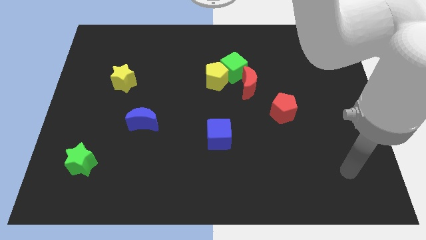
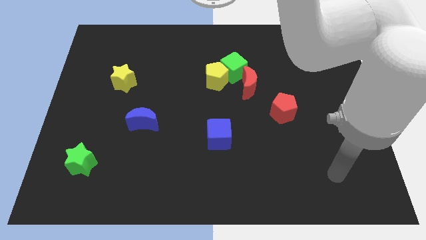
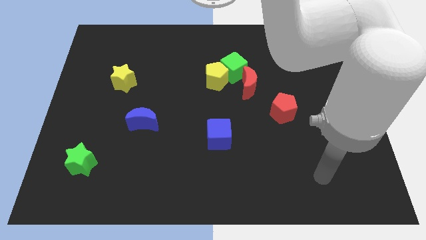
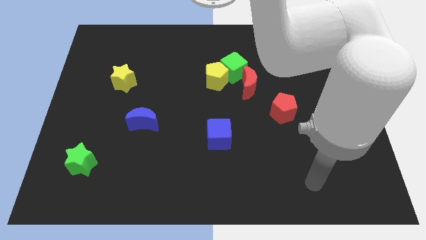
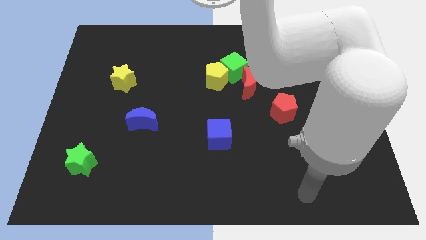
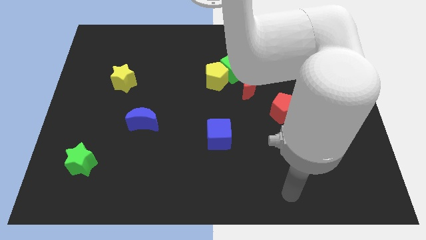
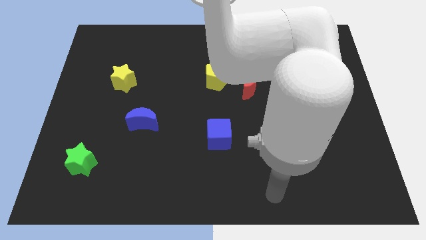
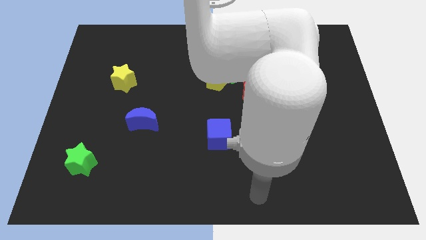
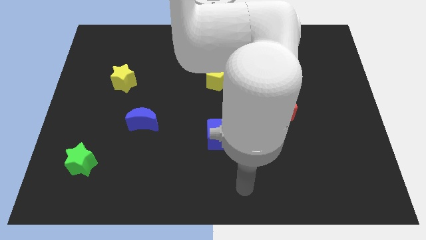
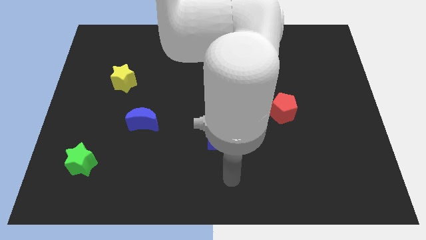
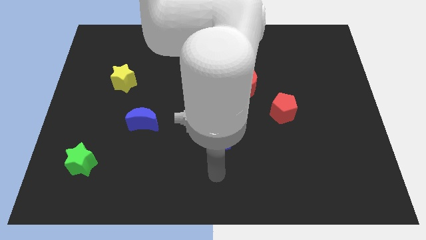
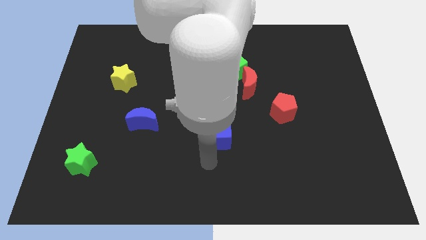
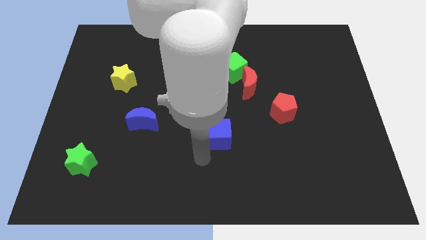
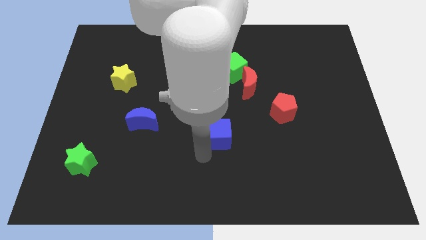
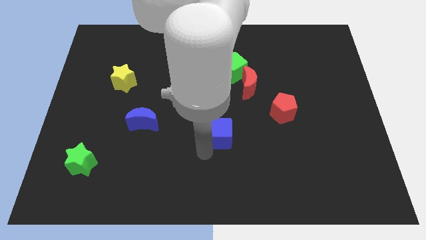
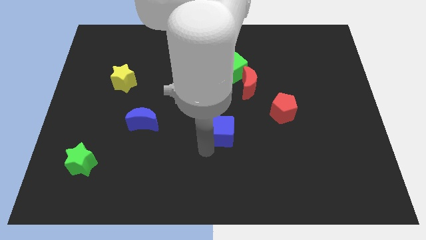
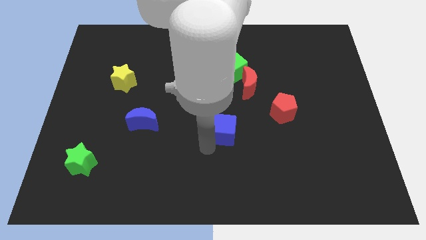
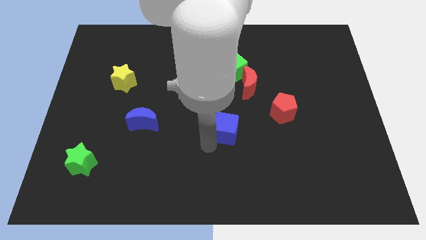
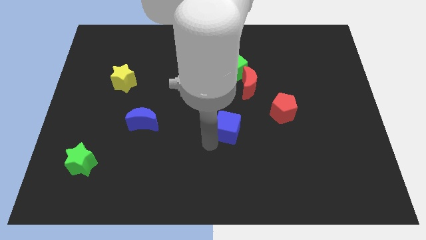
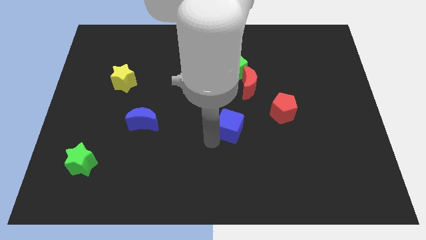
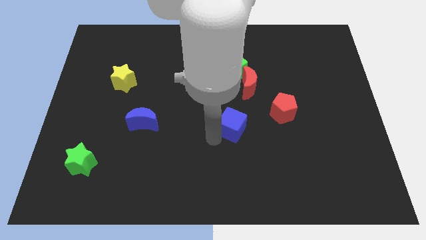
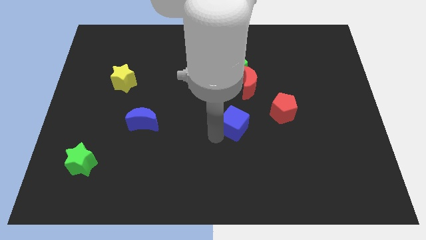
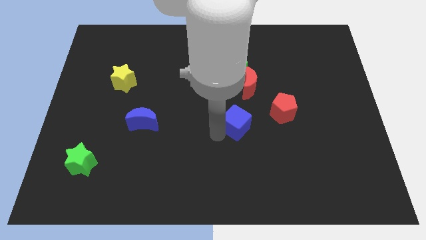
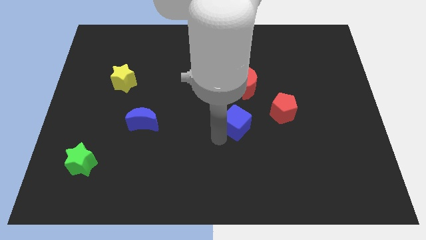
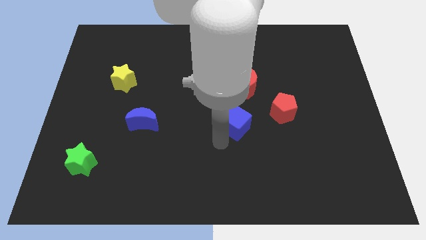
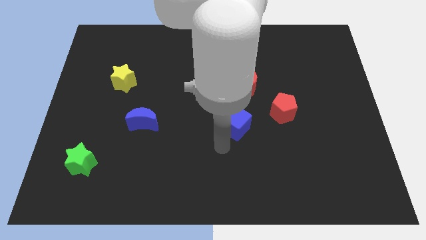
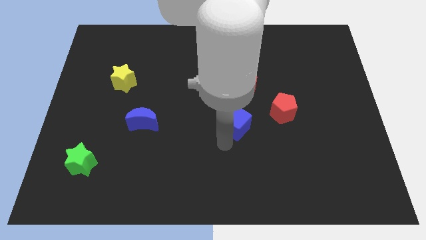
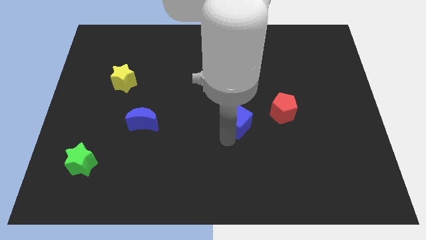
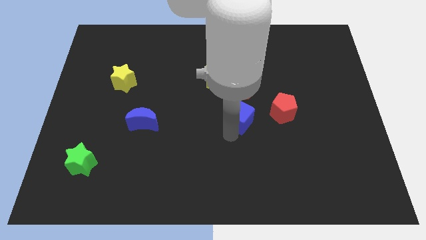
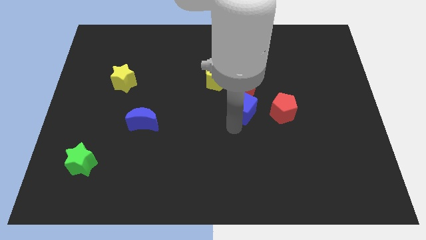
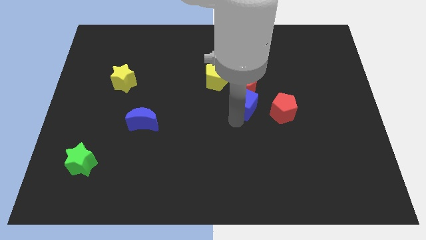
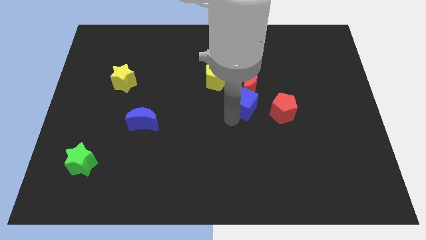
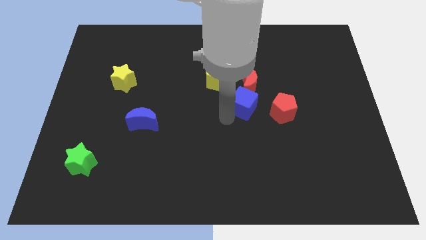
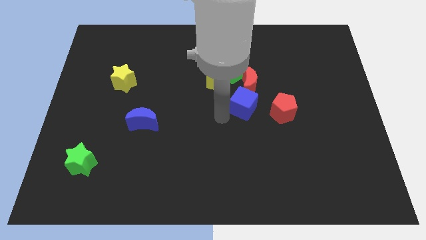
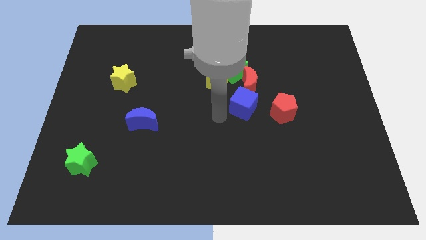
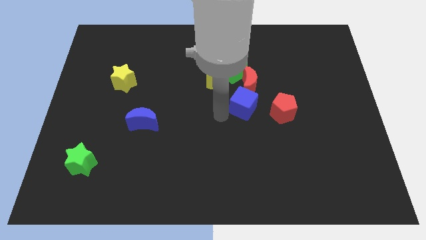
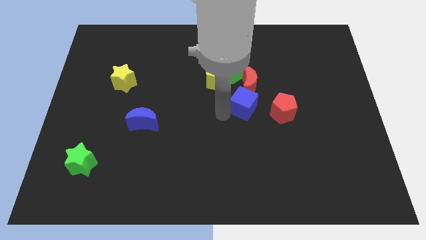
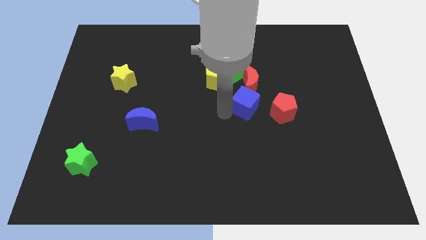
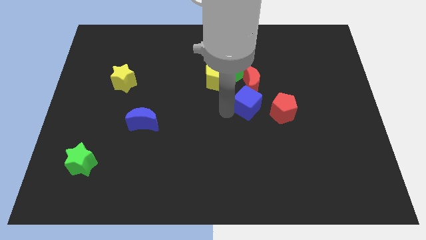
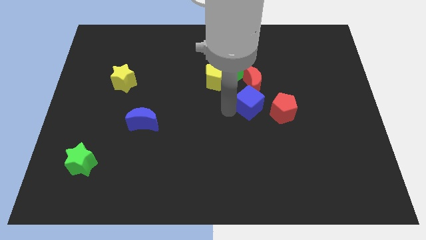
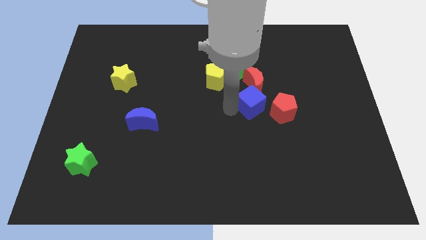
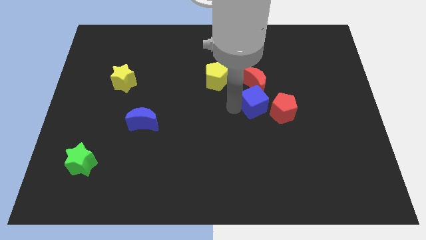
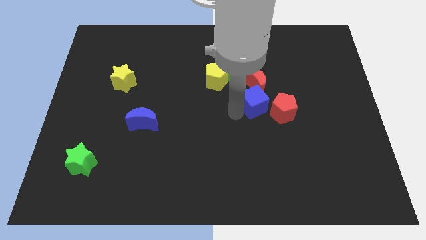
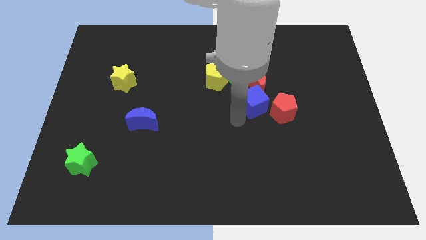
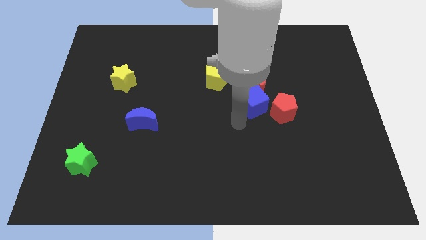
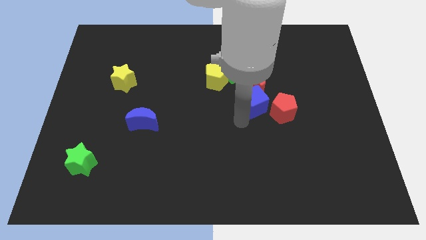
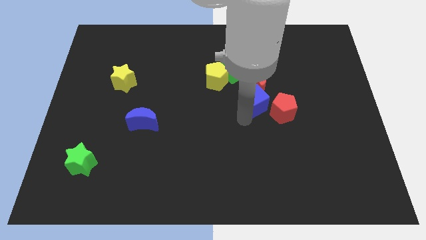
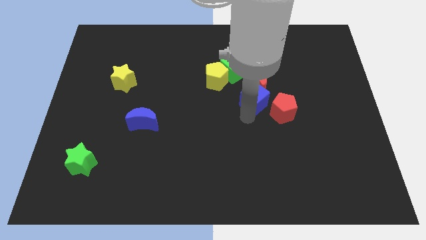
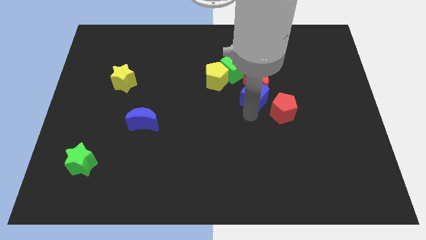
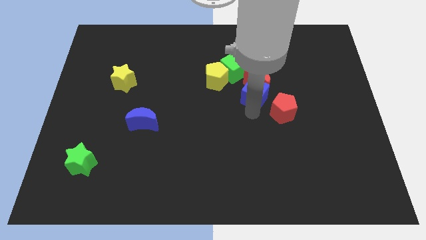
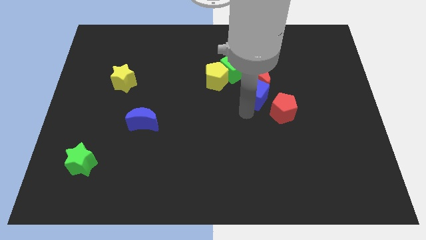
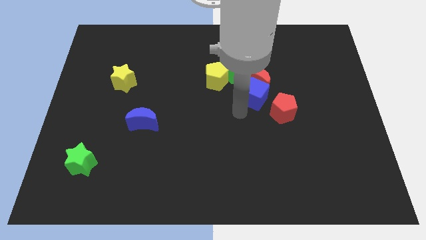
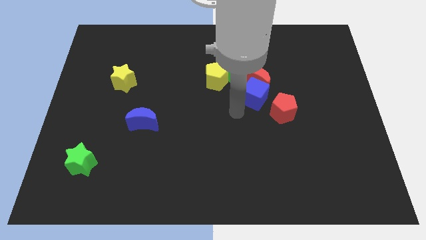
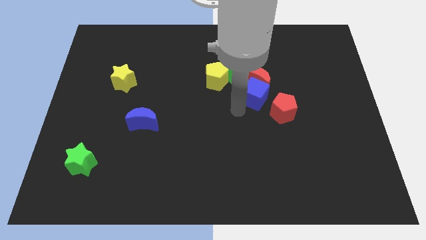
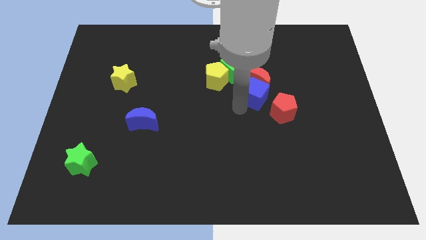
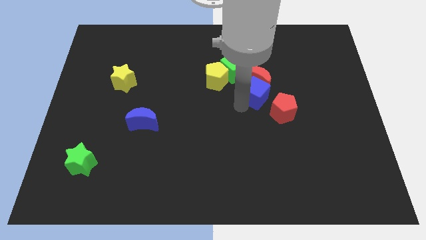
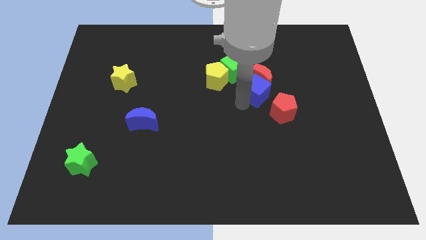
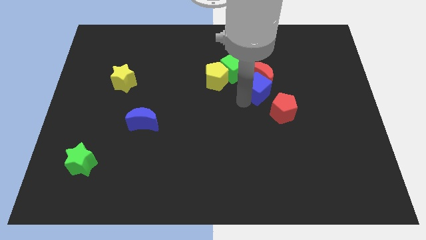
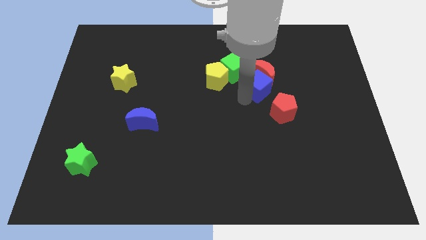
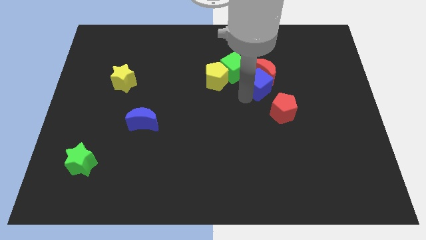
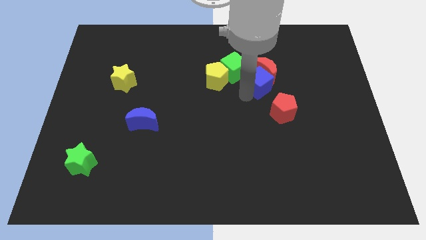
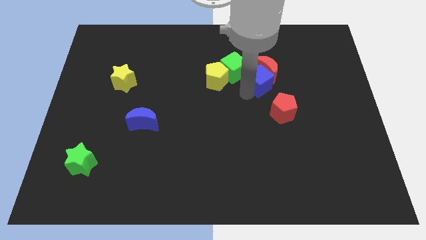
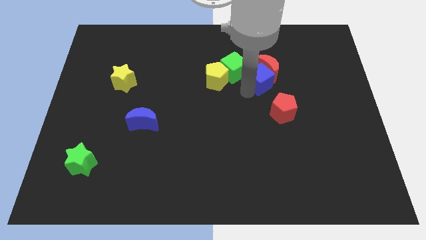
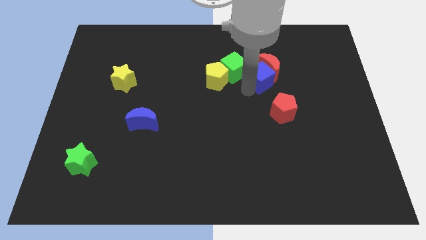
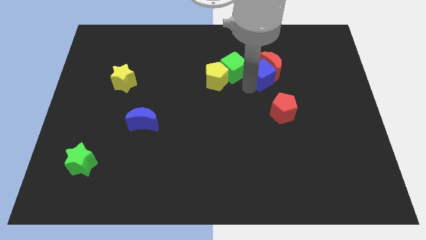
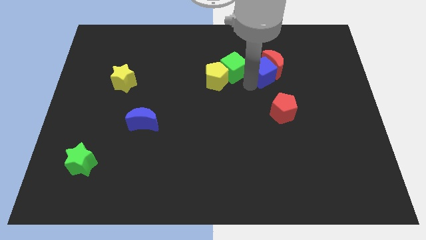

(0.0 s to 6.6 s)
push the blue cube up and then right

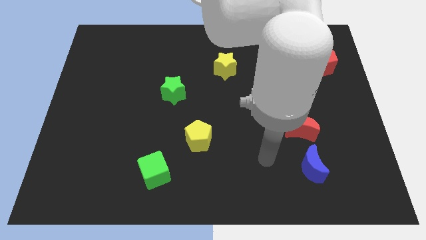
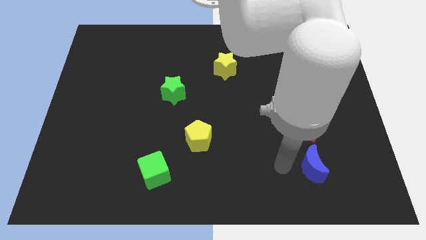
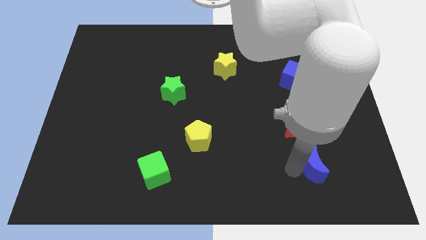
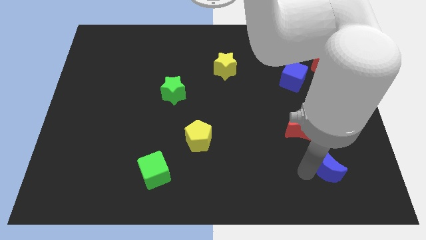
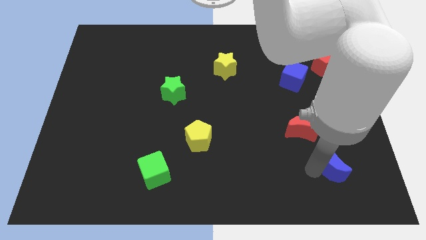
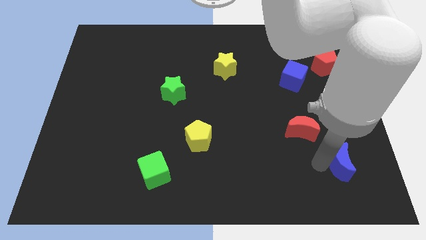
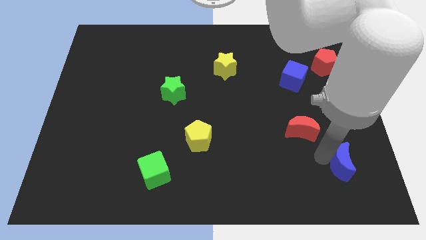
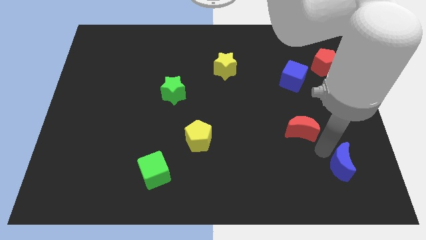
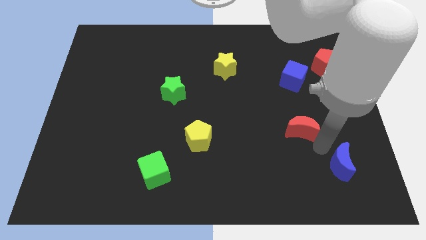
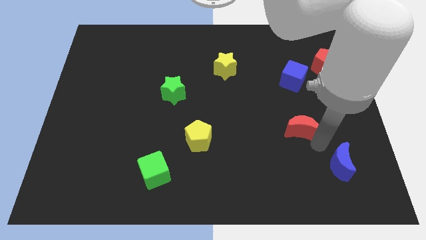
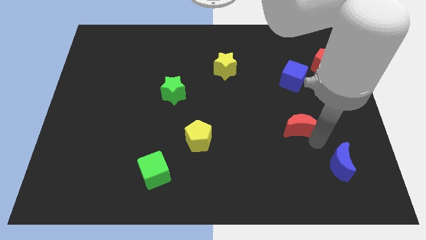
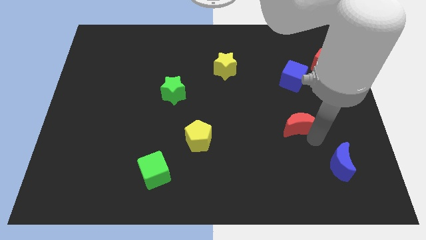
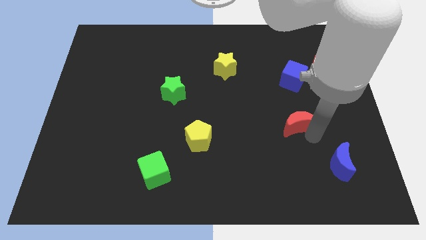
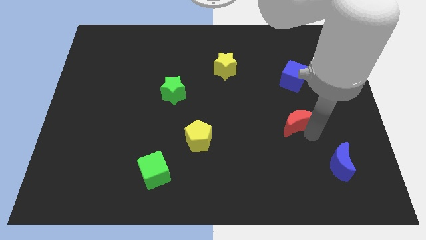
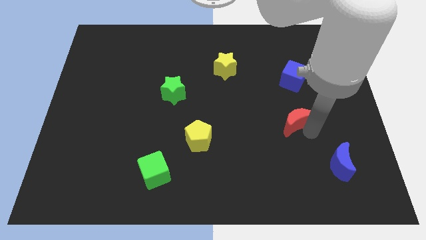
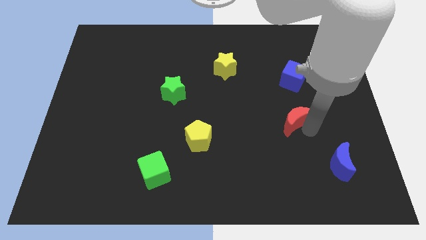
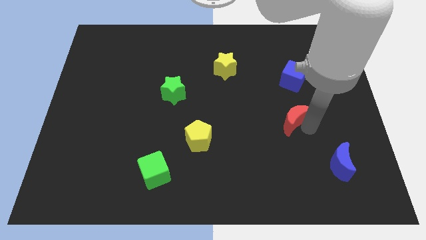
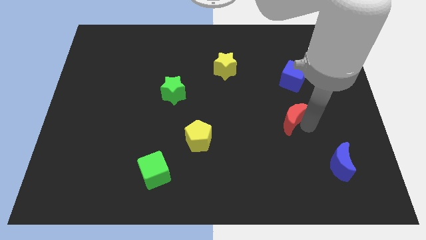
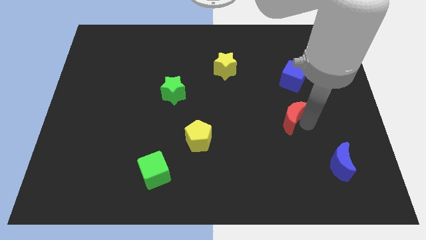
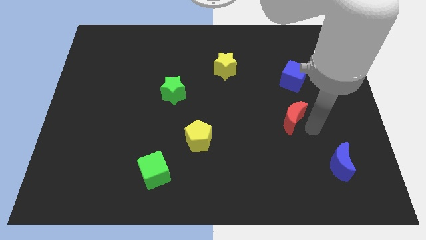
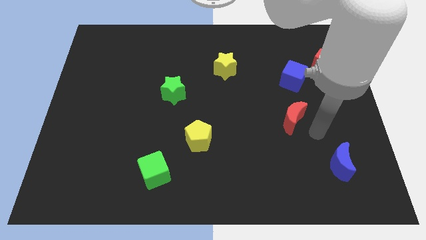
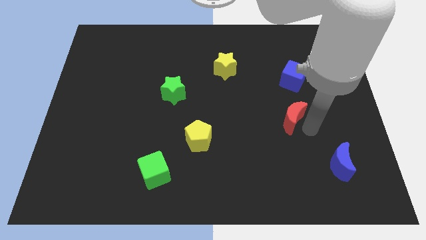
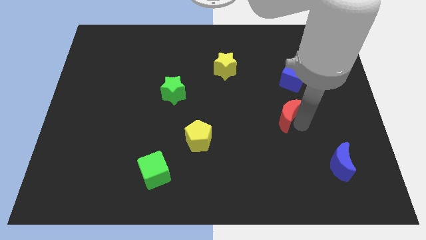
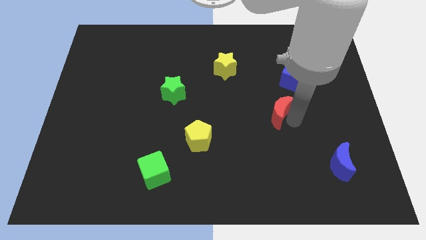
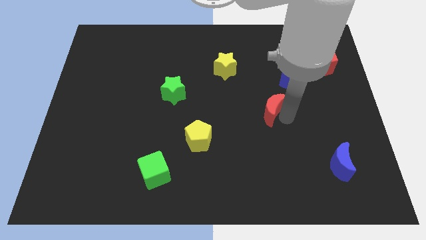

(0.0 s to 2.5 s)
slide the red moon slightly up and to the left
